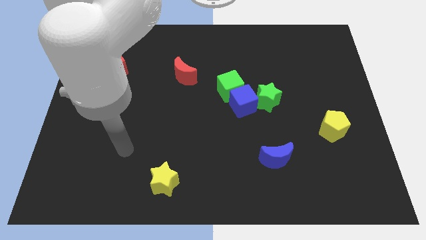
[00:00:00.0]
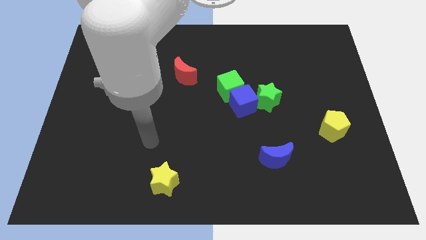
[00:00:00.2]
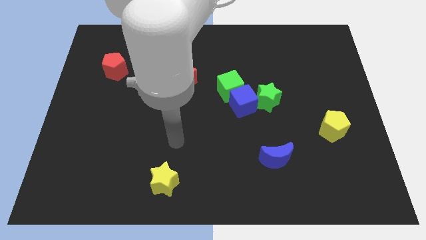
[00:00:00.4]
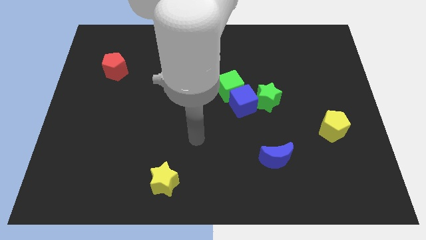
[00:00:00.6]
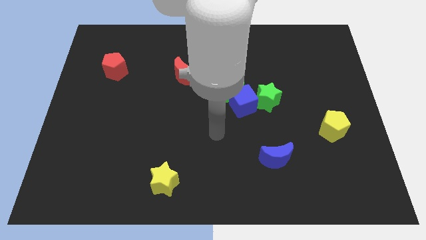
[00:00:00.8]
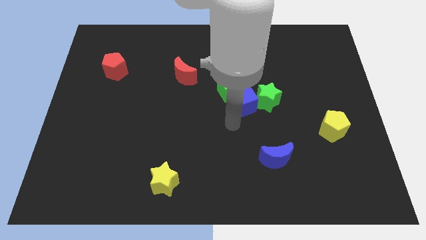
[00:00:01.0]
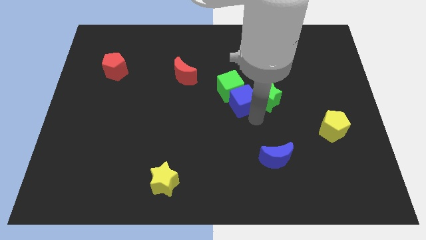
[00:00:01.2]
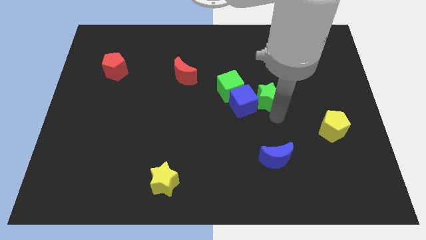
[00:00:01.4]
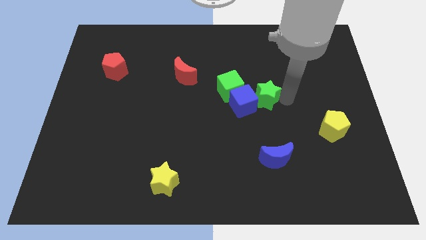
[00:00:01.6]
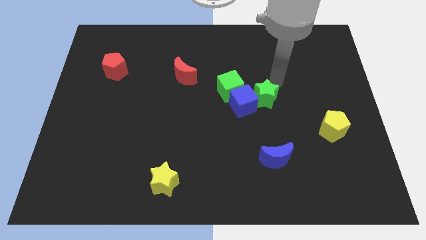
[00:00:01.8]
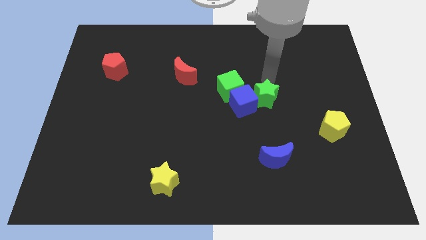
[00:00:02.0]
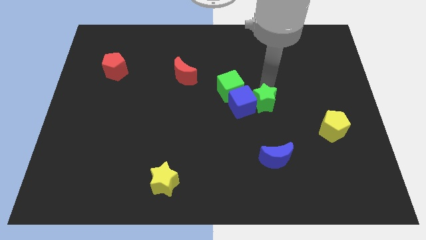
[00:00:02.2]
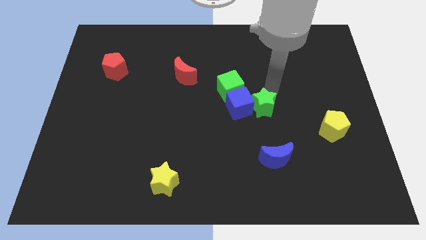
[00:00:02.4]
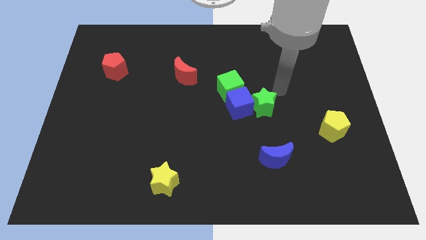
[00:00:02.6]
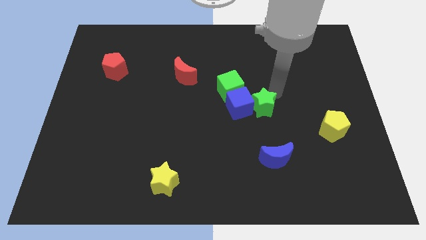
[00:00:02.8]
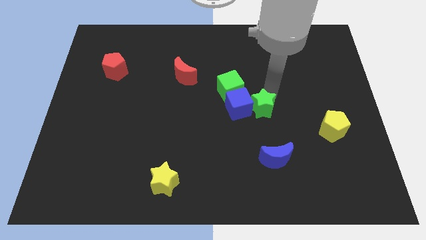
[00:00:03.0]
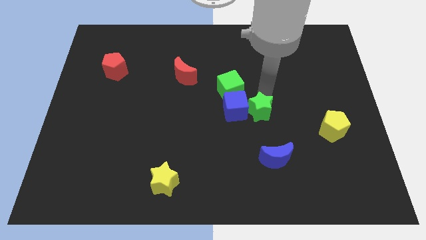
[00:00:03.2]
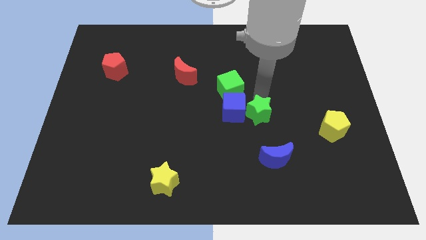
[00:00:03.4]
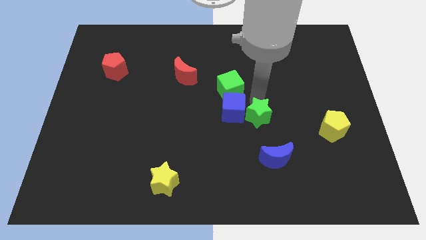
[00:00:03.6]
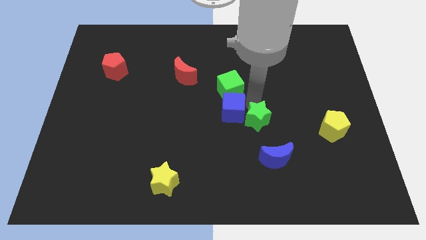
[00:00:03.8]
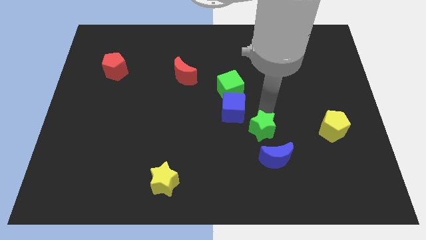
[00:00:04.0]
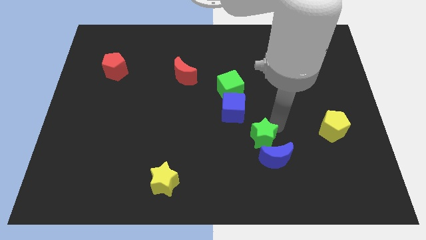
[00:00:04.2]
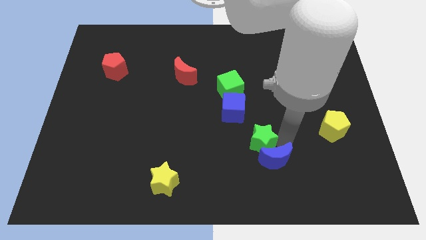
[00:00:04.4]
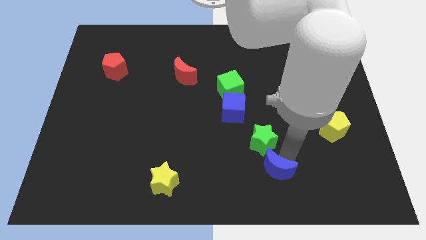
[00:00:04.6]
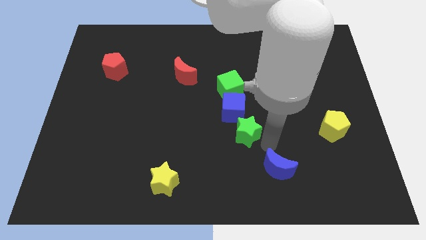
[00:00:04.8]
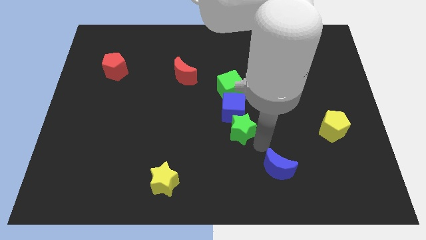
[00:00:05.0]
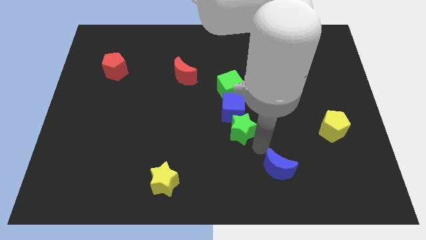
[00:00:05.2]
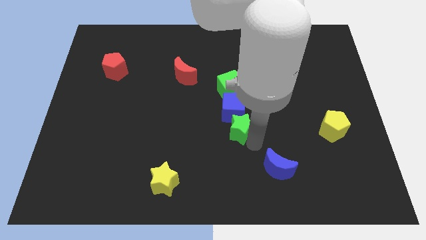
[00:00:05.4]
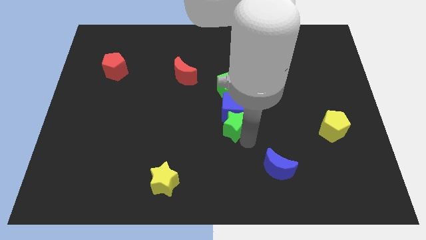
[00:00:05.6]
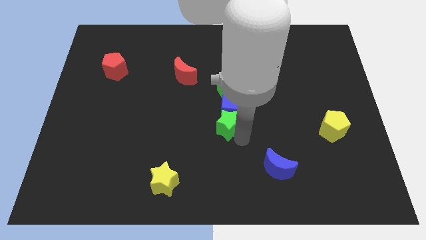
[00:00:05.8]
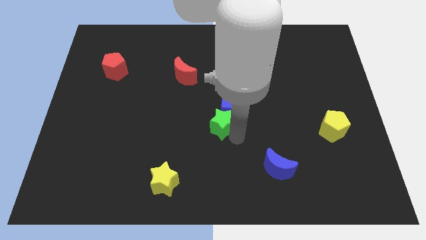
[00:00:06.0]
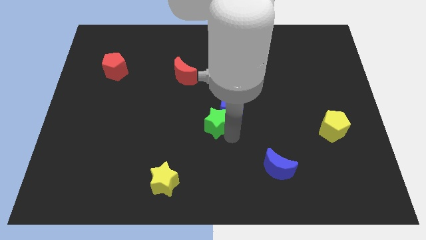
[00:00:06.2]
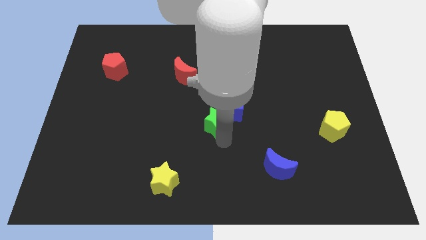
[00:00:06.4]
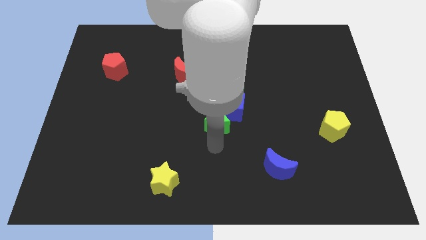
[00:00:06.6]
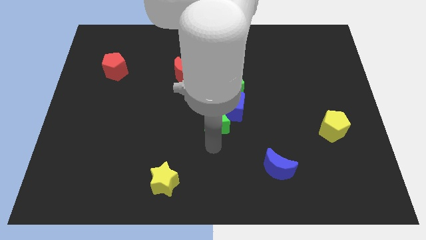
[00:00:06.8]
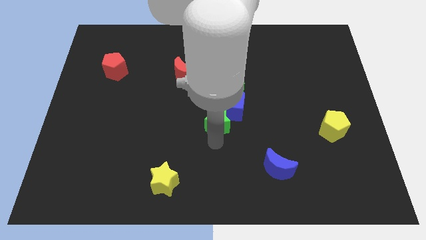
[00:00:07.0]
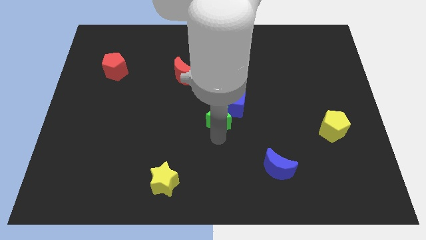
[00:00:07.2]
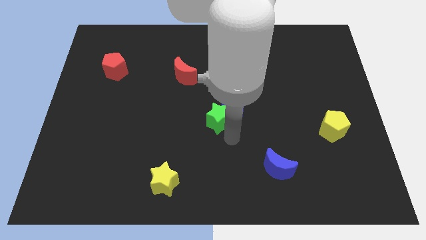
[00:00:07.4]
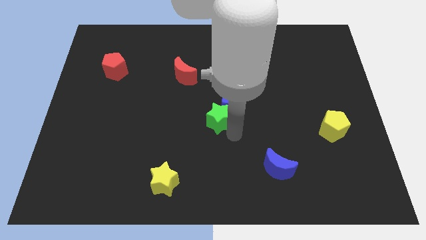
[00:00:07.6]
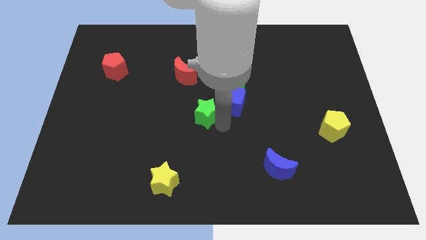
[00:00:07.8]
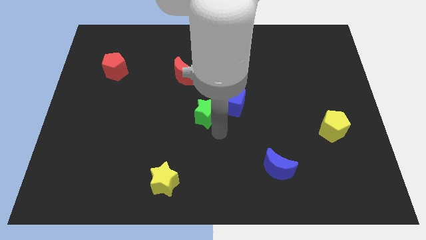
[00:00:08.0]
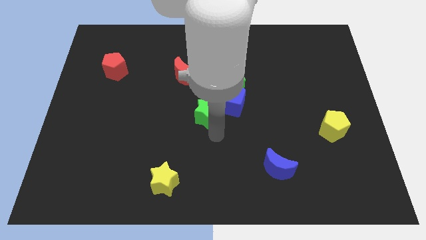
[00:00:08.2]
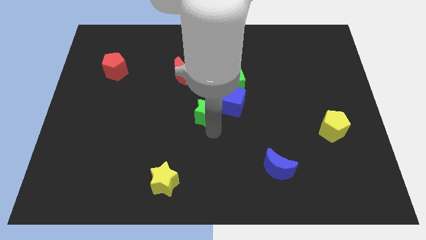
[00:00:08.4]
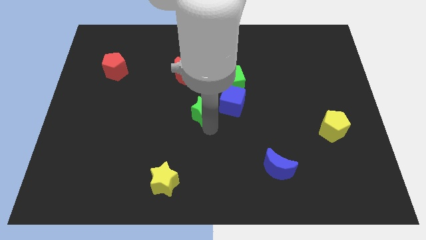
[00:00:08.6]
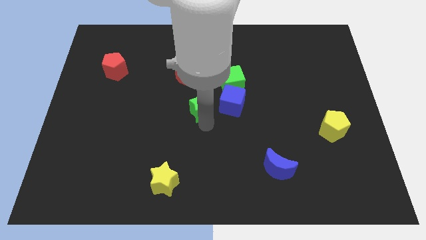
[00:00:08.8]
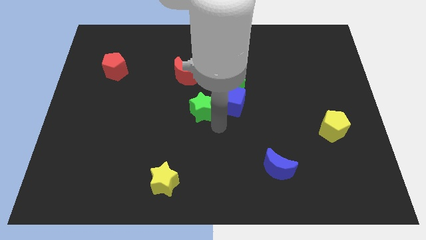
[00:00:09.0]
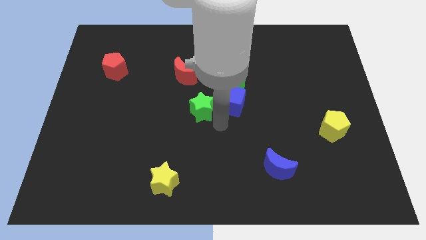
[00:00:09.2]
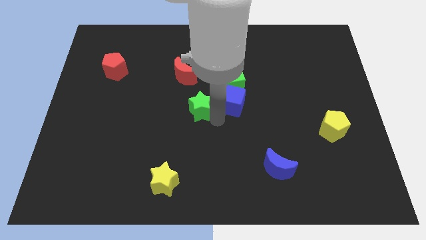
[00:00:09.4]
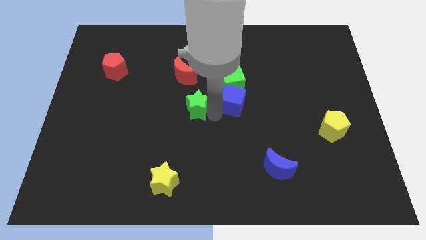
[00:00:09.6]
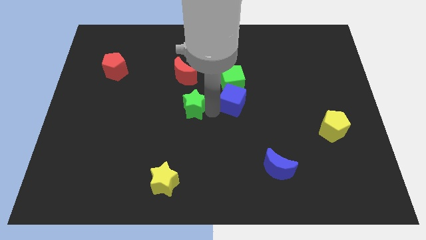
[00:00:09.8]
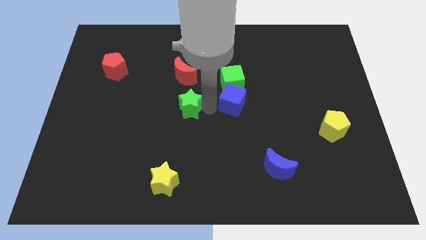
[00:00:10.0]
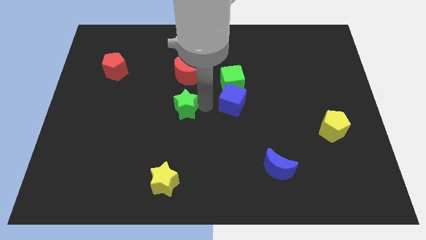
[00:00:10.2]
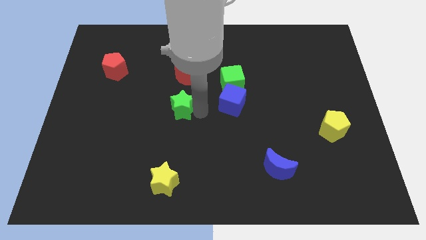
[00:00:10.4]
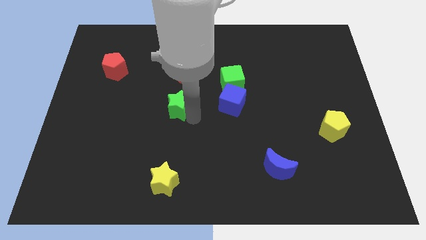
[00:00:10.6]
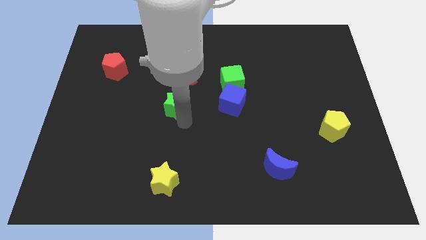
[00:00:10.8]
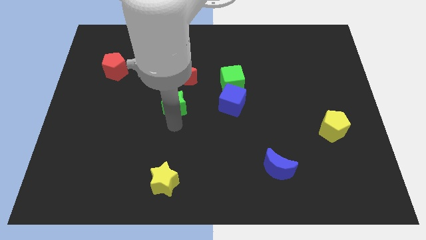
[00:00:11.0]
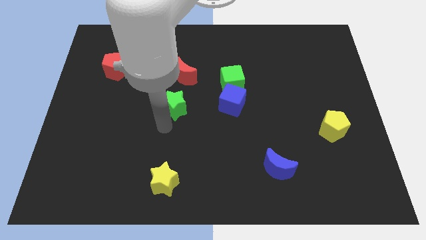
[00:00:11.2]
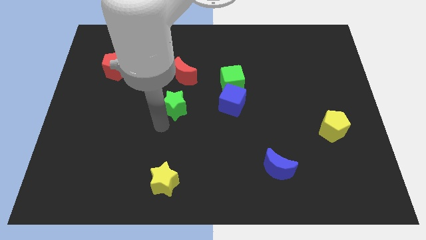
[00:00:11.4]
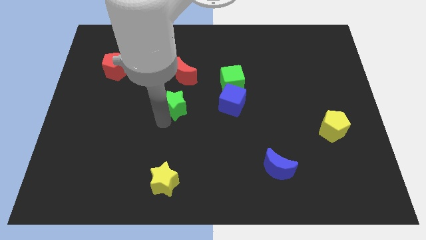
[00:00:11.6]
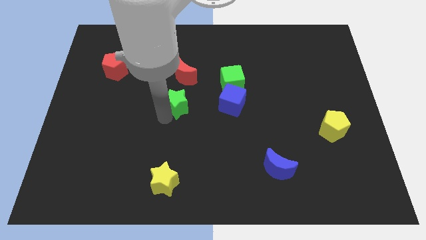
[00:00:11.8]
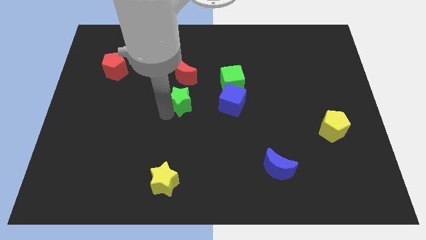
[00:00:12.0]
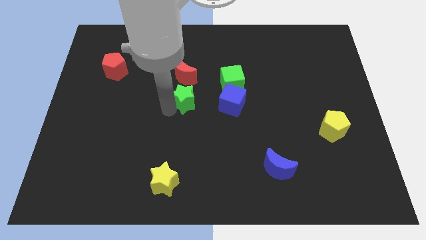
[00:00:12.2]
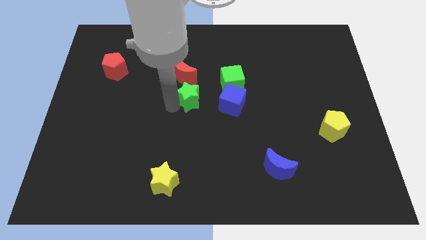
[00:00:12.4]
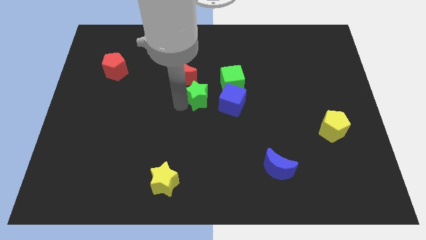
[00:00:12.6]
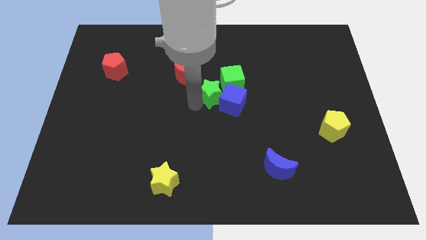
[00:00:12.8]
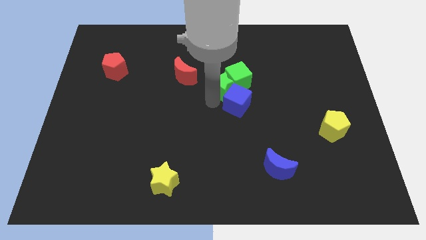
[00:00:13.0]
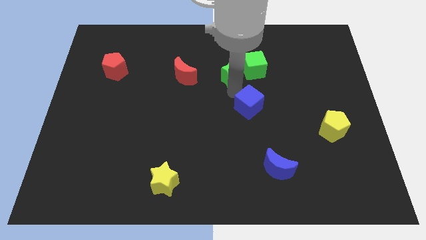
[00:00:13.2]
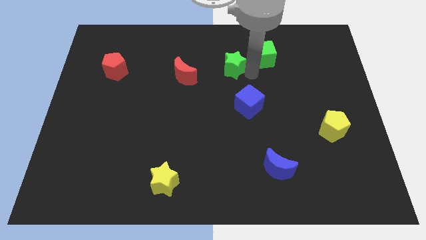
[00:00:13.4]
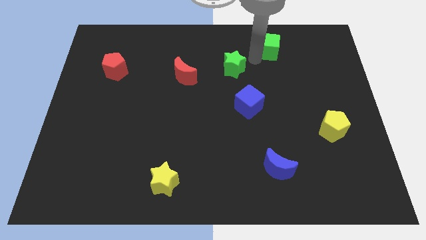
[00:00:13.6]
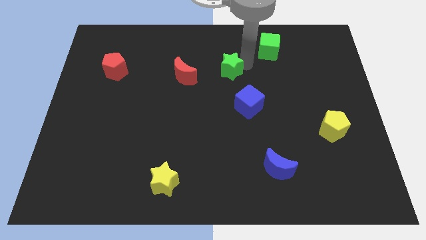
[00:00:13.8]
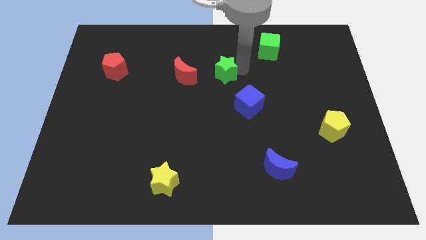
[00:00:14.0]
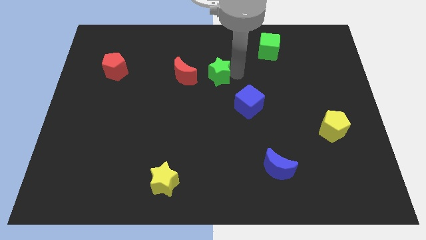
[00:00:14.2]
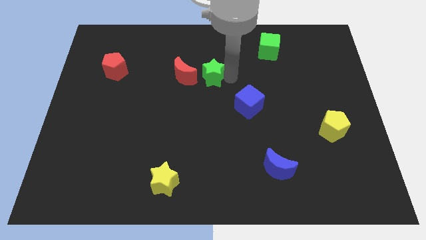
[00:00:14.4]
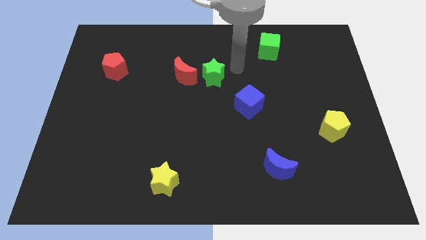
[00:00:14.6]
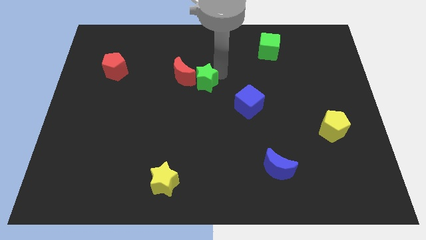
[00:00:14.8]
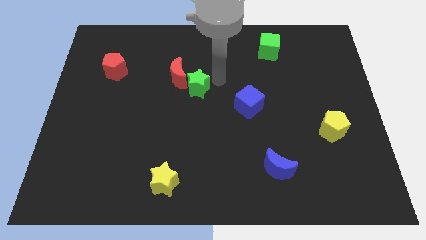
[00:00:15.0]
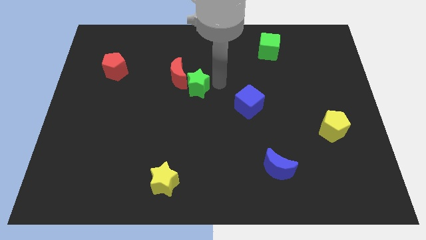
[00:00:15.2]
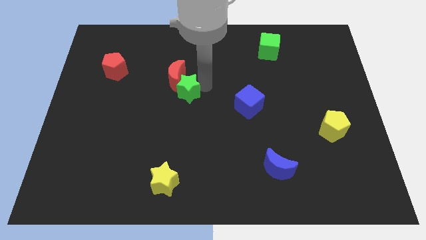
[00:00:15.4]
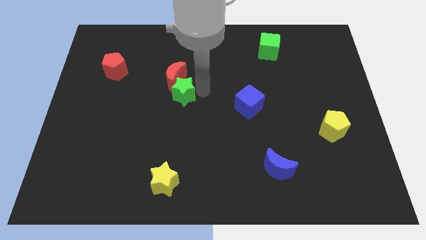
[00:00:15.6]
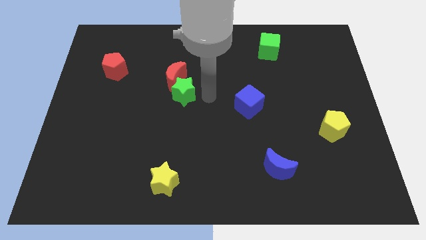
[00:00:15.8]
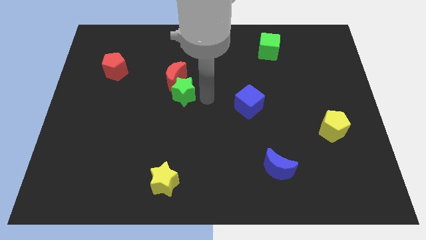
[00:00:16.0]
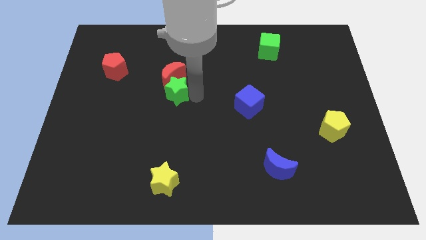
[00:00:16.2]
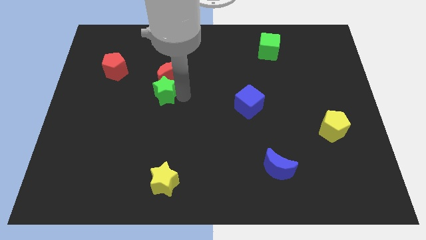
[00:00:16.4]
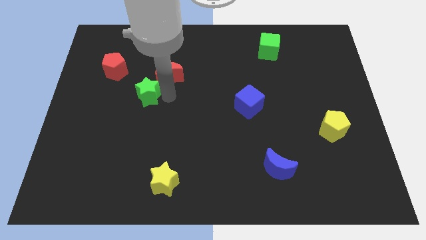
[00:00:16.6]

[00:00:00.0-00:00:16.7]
move the green star to the bottom right of the red pentagon
